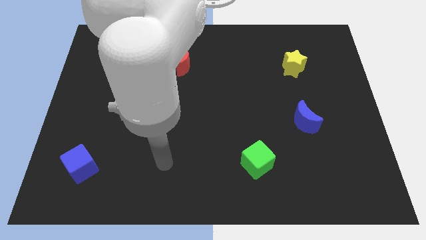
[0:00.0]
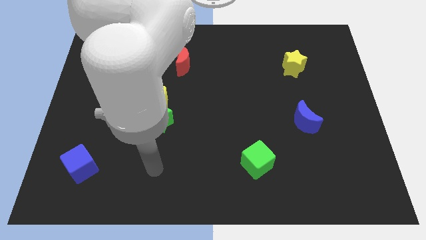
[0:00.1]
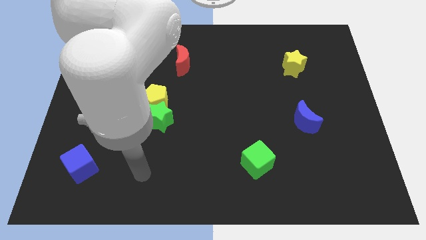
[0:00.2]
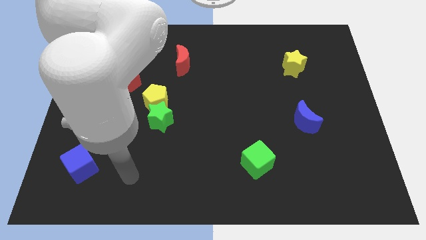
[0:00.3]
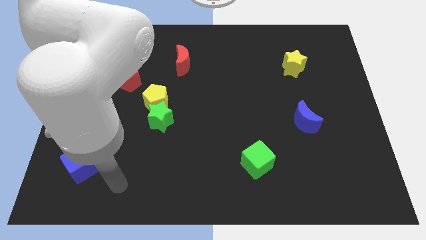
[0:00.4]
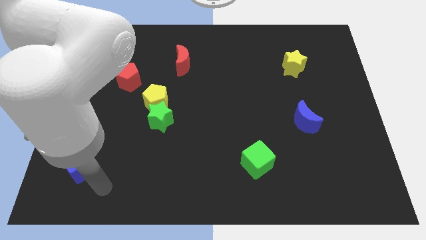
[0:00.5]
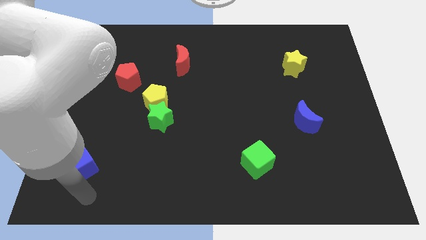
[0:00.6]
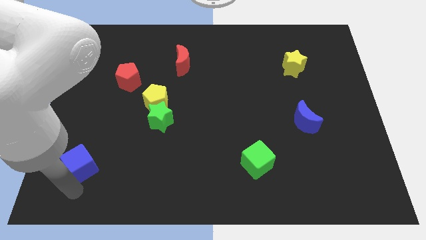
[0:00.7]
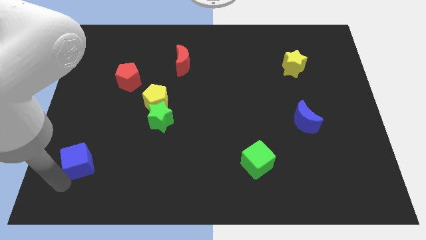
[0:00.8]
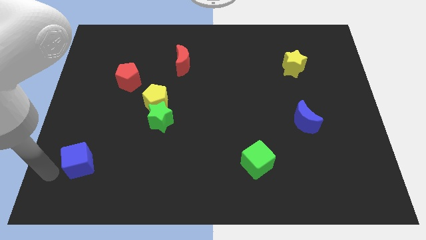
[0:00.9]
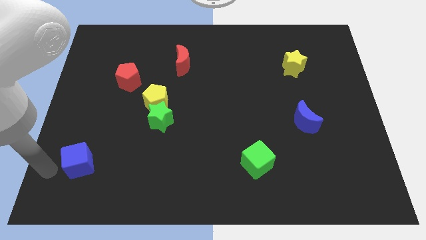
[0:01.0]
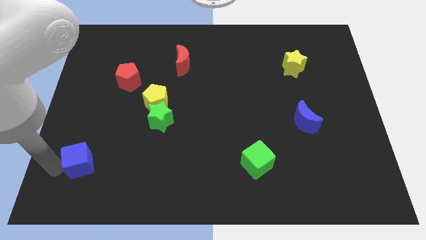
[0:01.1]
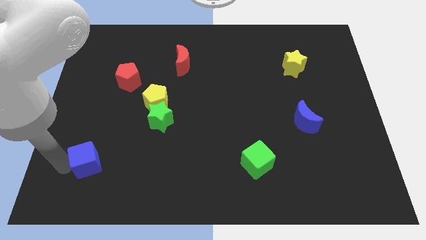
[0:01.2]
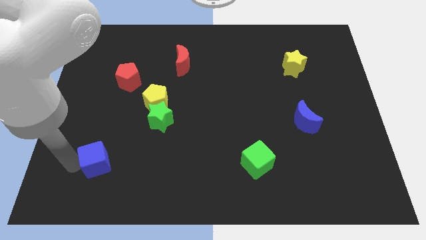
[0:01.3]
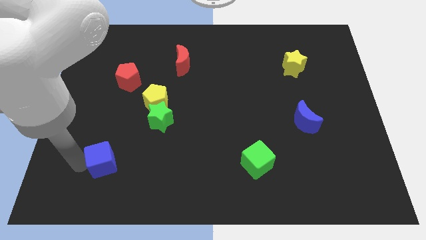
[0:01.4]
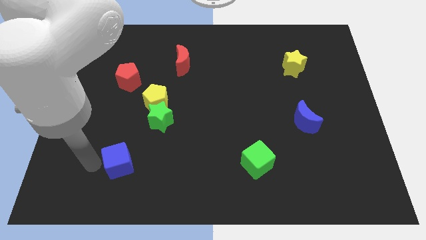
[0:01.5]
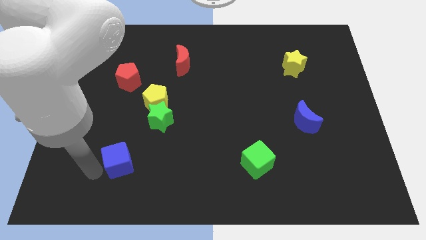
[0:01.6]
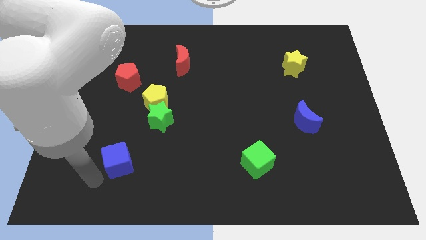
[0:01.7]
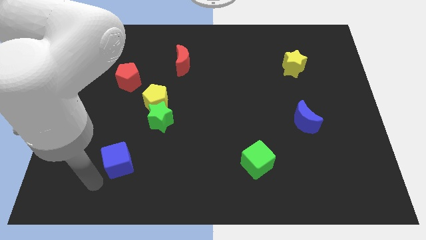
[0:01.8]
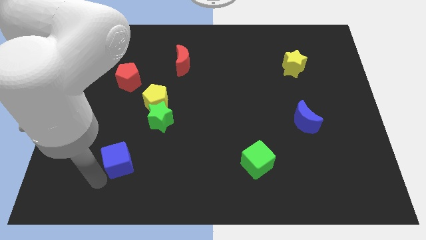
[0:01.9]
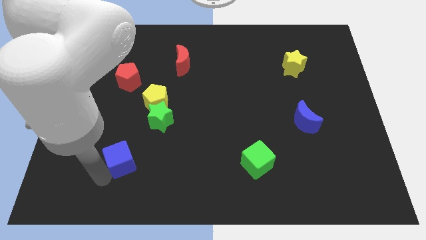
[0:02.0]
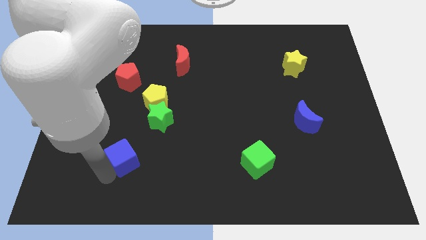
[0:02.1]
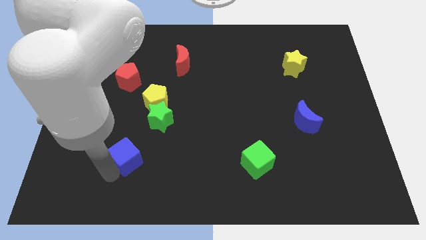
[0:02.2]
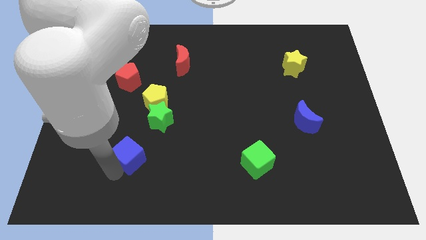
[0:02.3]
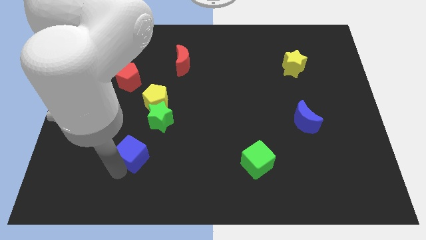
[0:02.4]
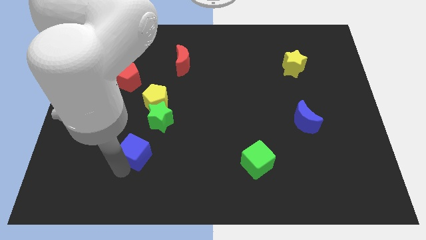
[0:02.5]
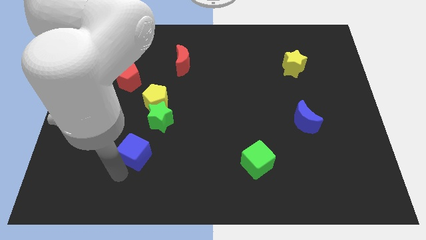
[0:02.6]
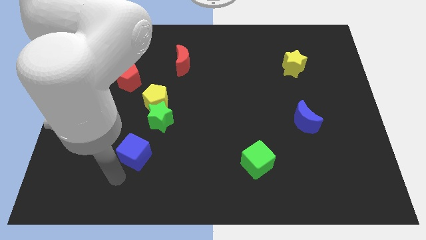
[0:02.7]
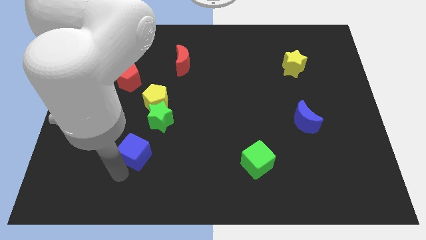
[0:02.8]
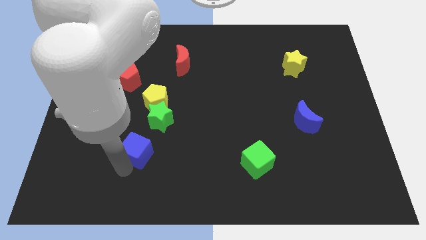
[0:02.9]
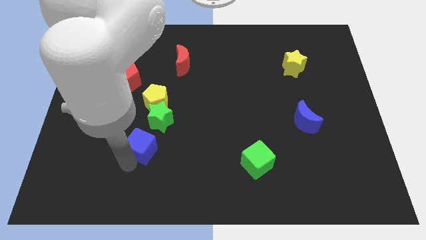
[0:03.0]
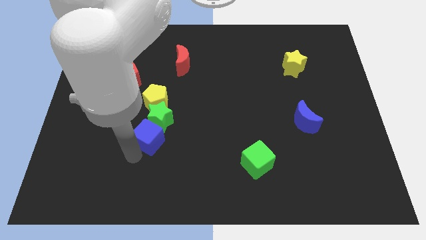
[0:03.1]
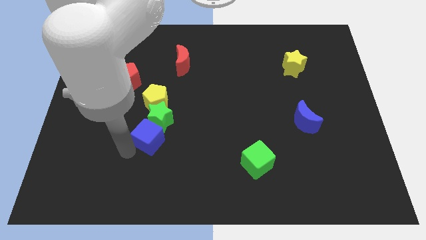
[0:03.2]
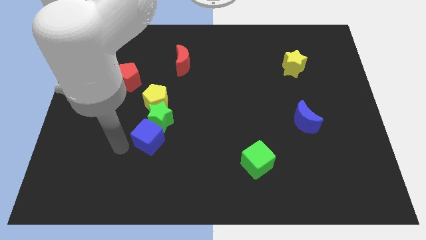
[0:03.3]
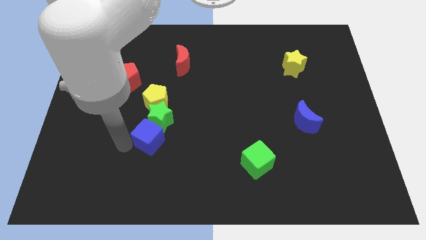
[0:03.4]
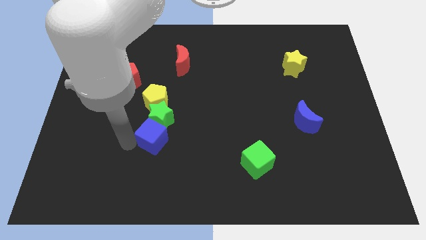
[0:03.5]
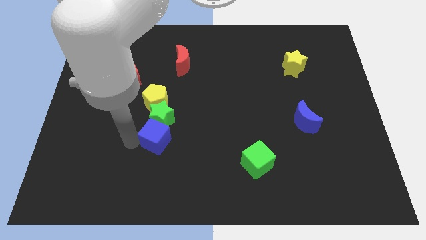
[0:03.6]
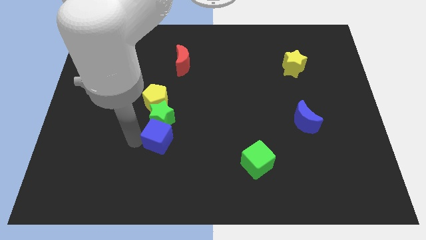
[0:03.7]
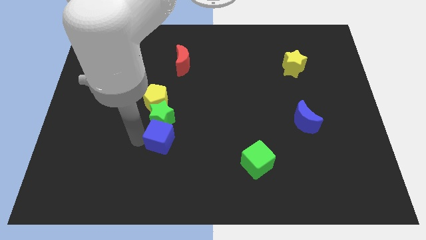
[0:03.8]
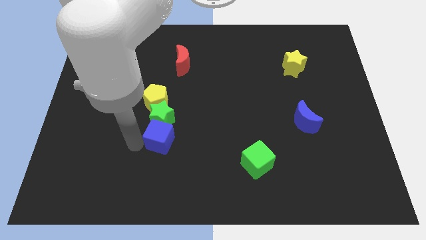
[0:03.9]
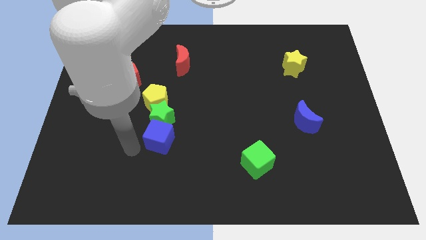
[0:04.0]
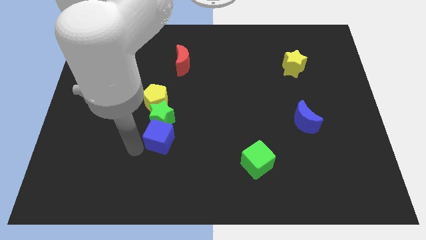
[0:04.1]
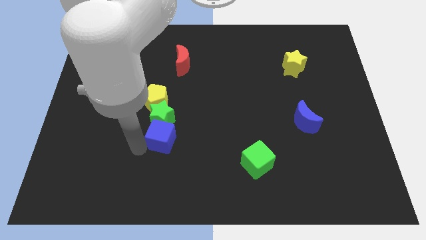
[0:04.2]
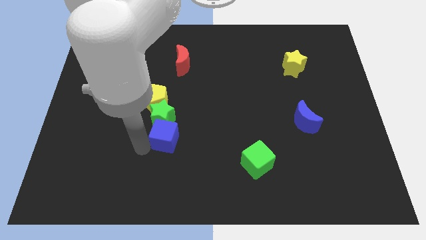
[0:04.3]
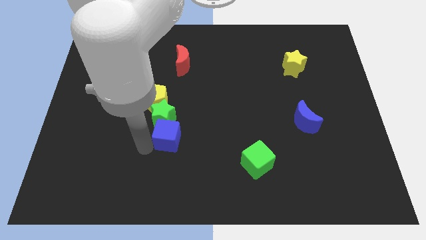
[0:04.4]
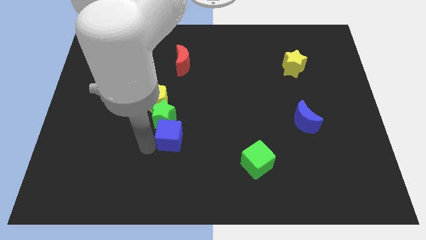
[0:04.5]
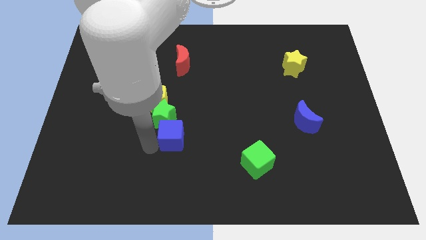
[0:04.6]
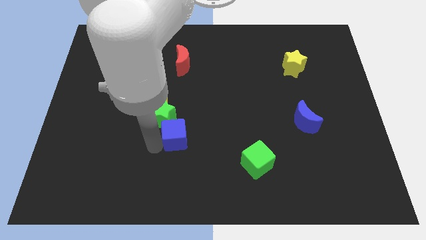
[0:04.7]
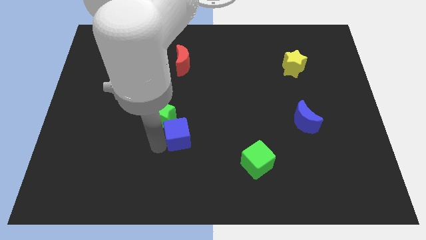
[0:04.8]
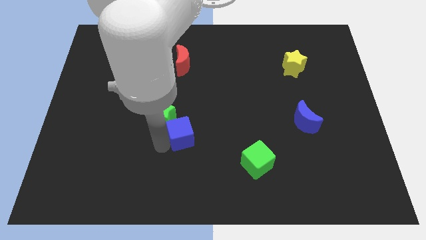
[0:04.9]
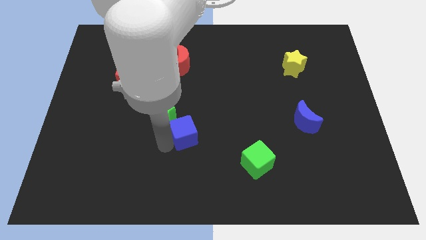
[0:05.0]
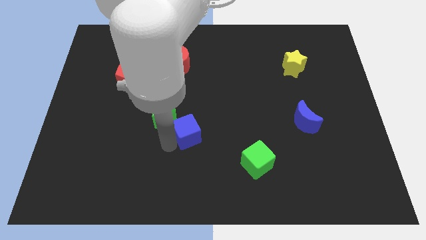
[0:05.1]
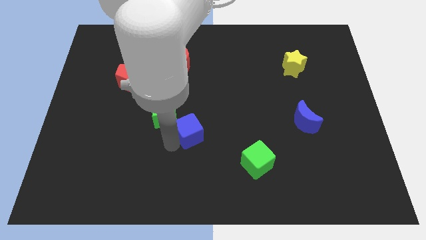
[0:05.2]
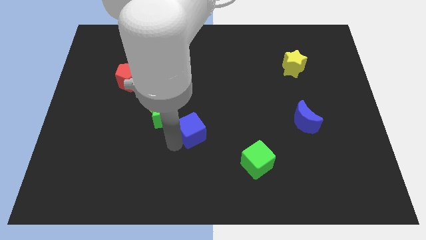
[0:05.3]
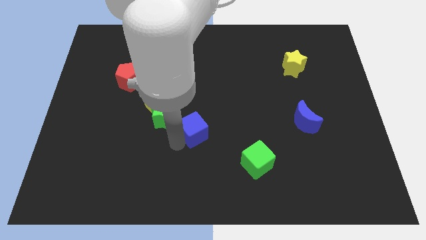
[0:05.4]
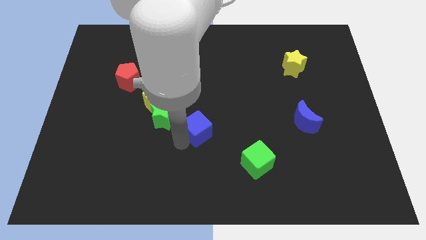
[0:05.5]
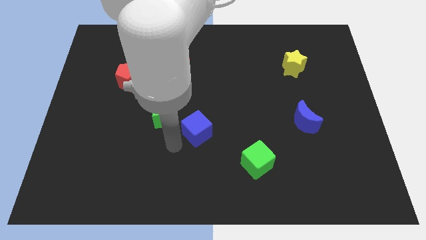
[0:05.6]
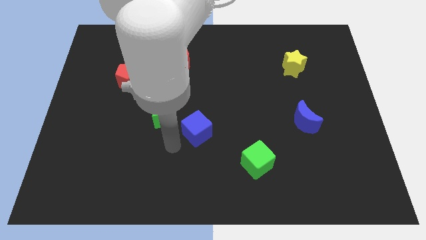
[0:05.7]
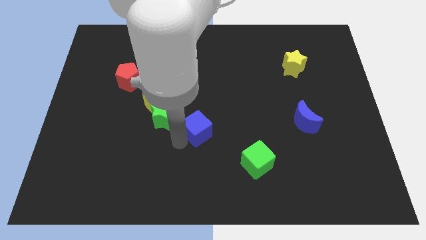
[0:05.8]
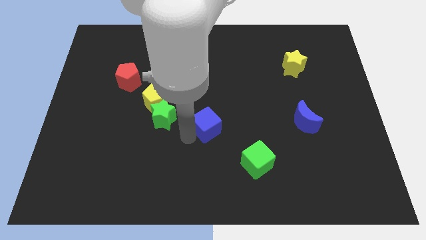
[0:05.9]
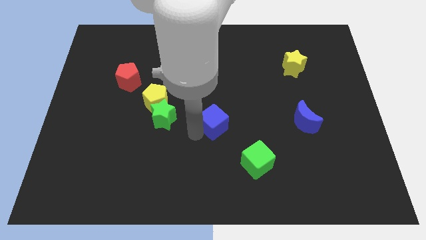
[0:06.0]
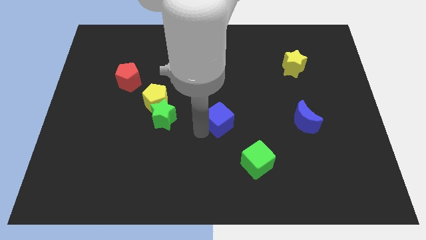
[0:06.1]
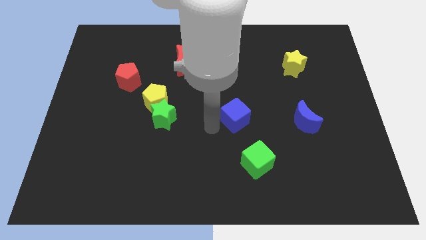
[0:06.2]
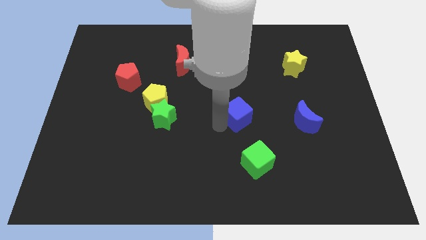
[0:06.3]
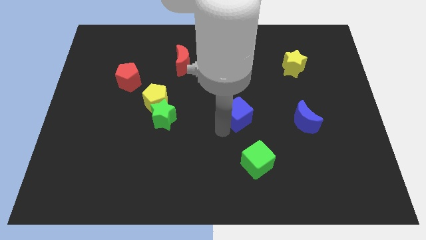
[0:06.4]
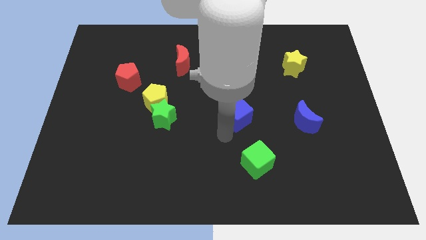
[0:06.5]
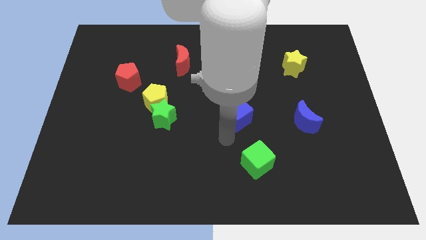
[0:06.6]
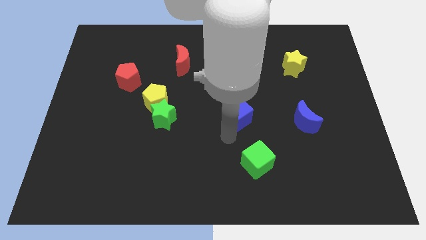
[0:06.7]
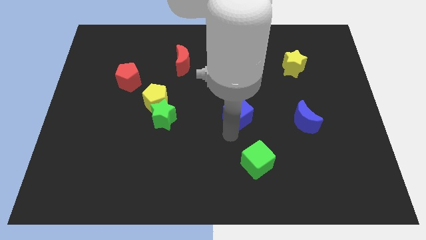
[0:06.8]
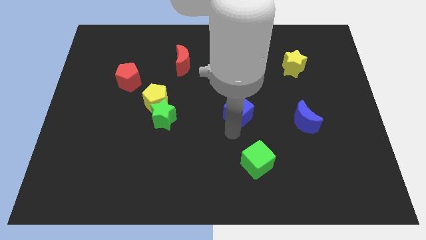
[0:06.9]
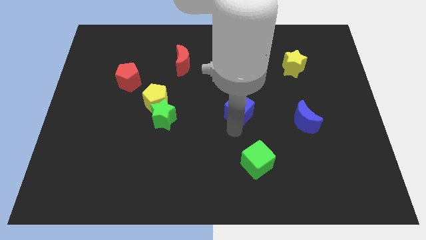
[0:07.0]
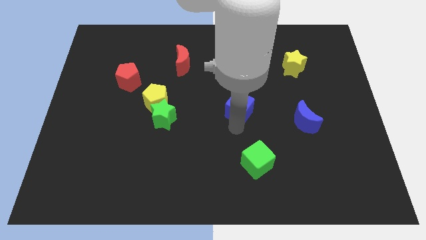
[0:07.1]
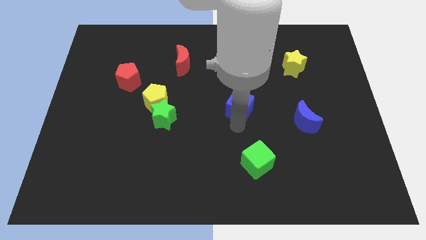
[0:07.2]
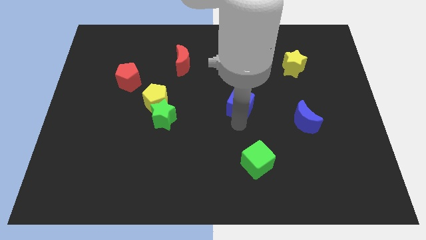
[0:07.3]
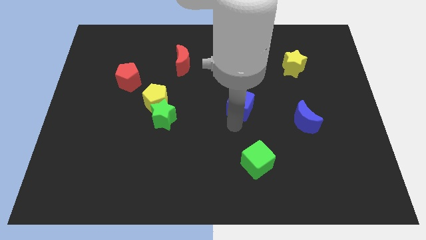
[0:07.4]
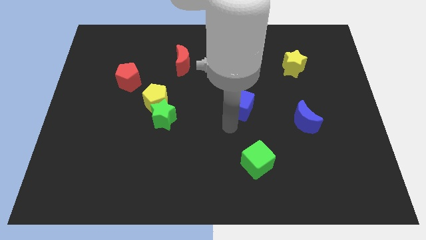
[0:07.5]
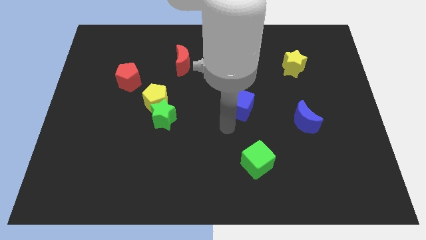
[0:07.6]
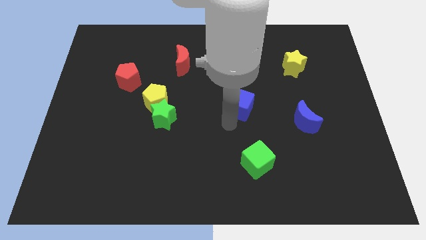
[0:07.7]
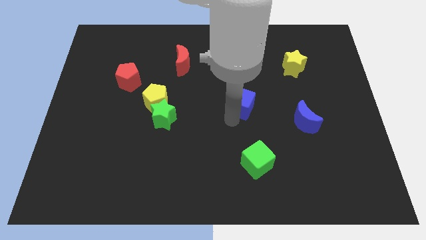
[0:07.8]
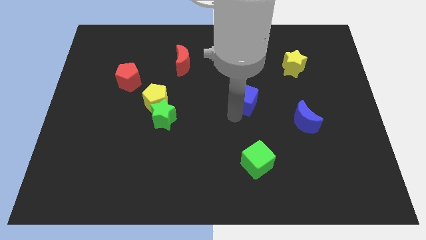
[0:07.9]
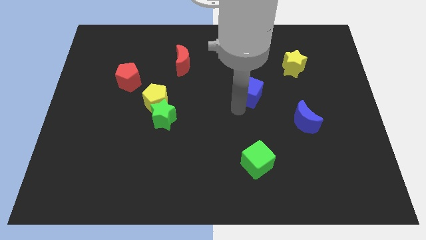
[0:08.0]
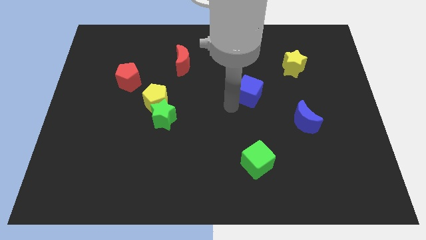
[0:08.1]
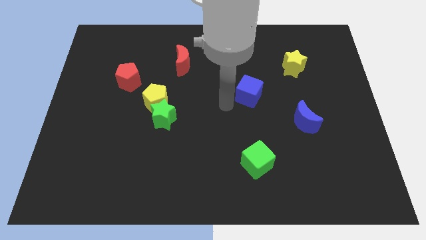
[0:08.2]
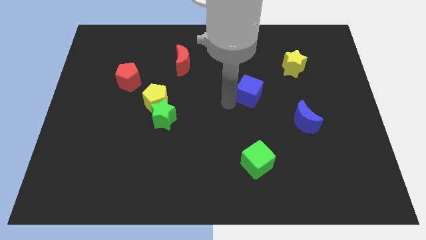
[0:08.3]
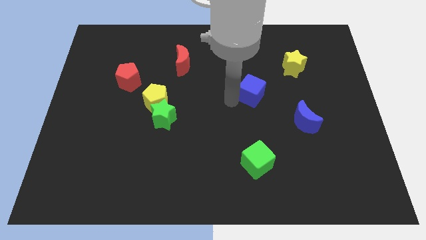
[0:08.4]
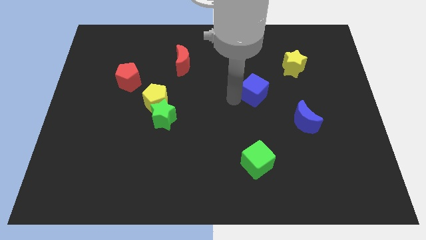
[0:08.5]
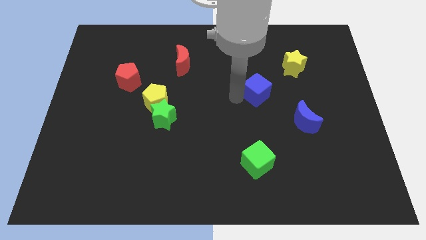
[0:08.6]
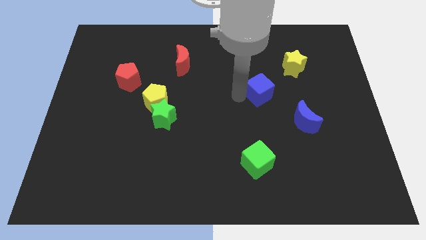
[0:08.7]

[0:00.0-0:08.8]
put the blue cube to the bottom left of the yellow star
